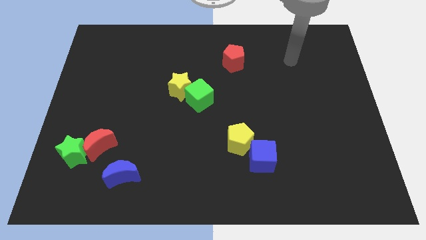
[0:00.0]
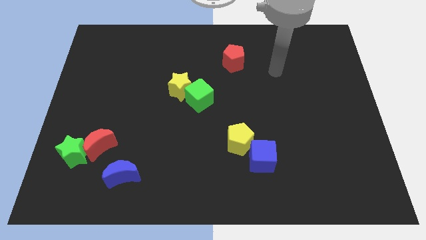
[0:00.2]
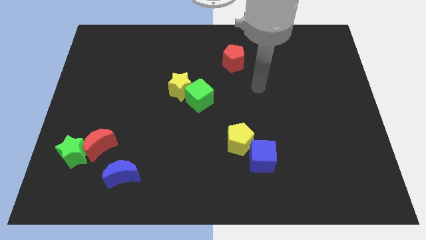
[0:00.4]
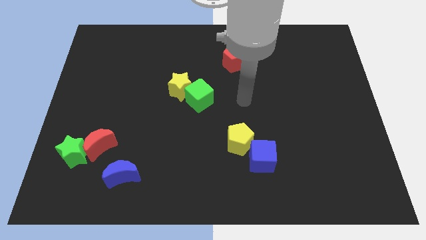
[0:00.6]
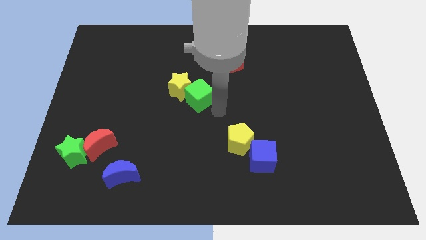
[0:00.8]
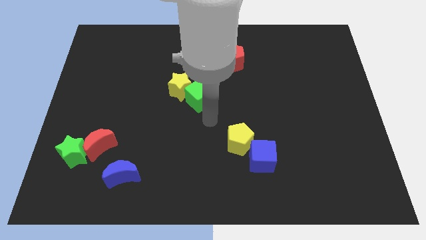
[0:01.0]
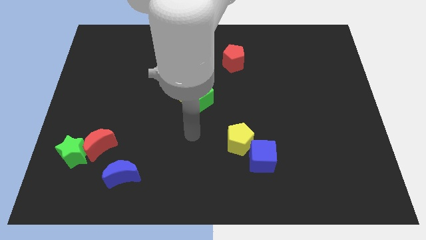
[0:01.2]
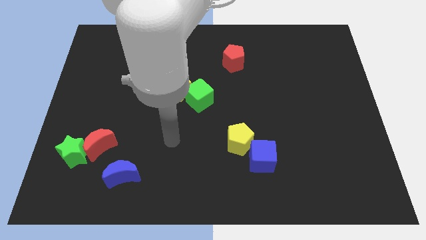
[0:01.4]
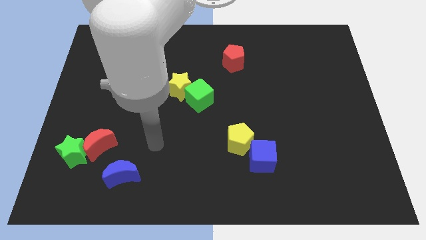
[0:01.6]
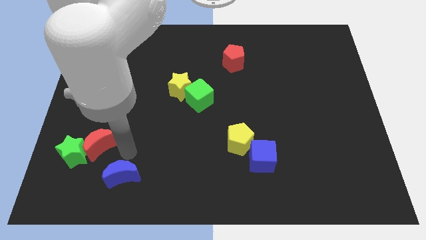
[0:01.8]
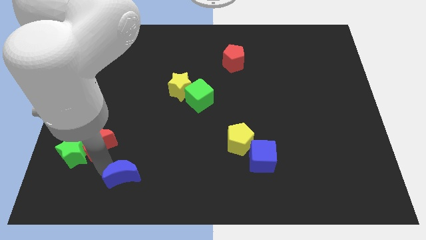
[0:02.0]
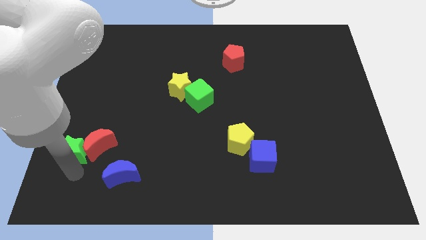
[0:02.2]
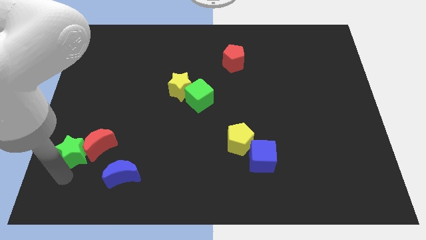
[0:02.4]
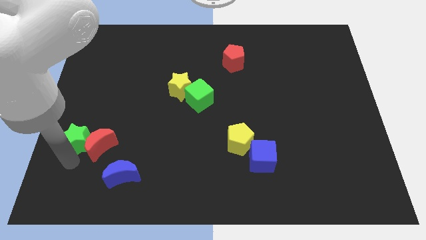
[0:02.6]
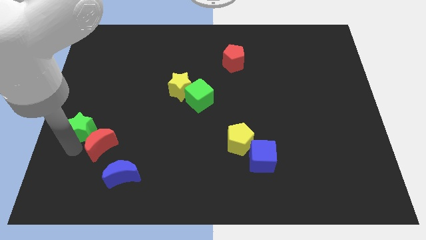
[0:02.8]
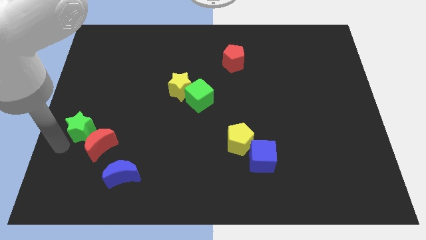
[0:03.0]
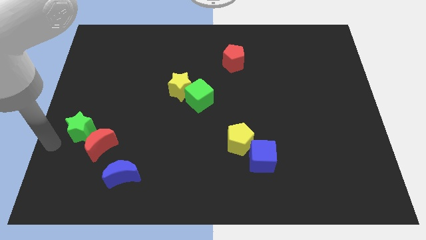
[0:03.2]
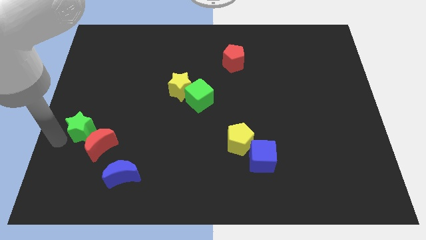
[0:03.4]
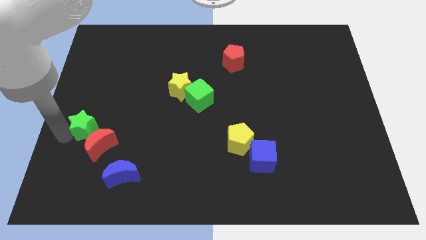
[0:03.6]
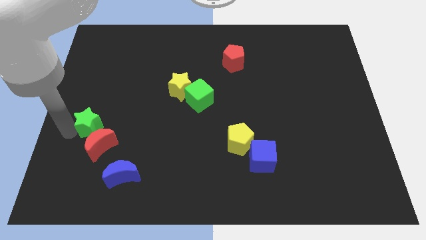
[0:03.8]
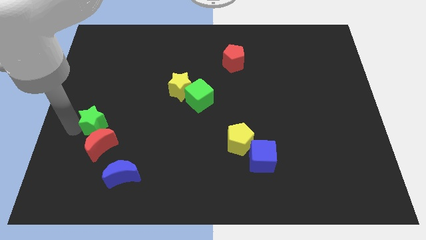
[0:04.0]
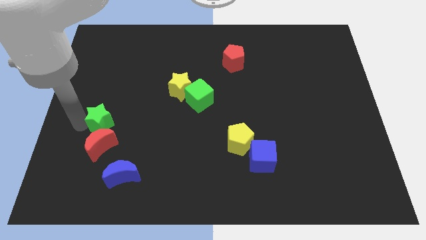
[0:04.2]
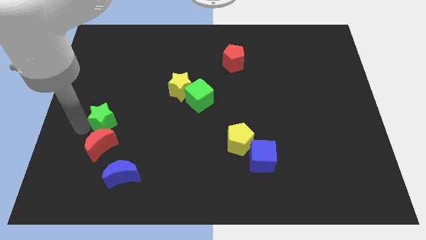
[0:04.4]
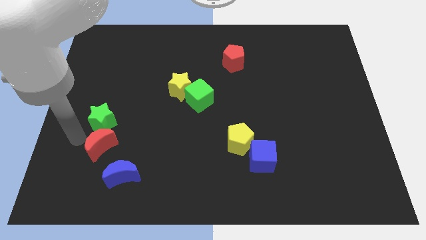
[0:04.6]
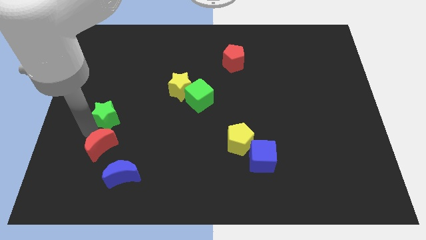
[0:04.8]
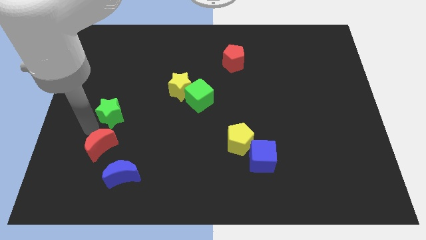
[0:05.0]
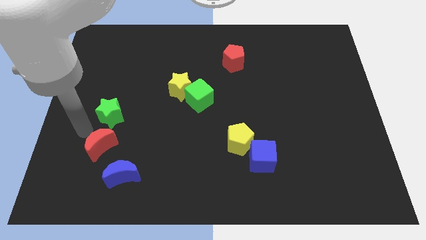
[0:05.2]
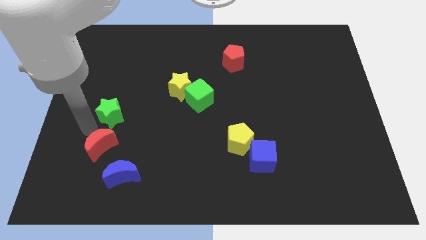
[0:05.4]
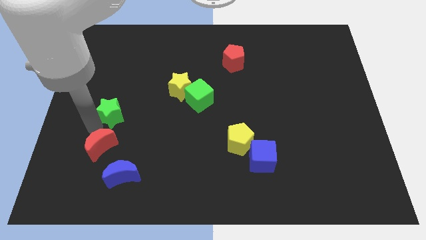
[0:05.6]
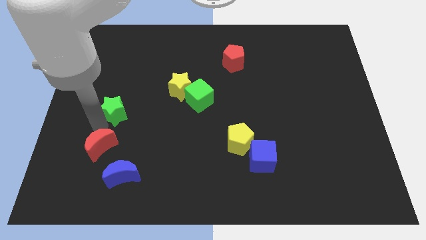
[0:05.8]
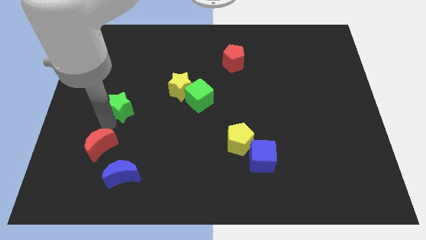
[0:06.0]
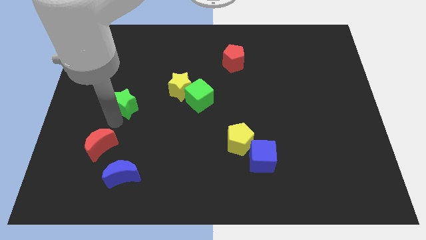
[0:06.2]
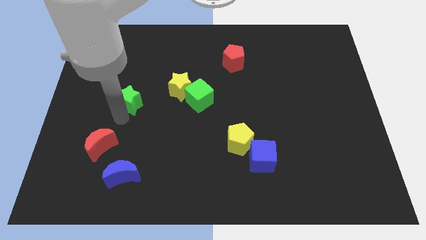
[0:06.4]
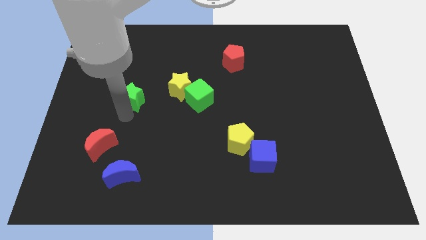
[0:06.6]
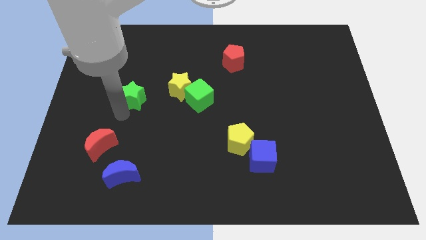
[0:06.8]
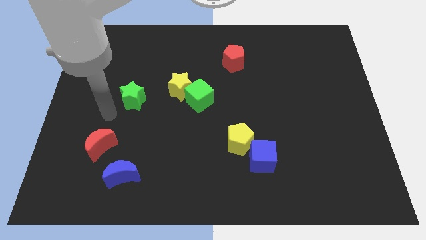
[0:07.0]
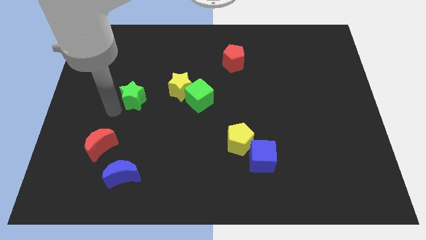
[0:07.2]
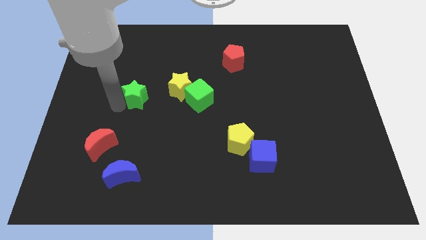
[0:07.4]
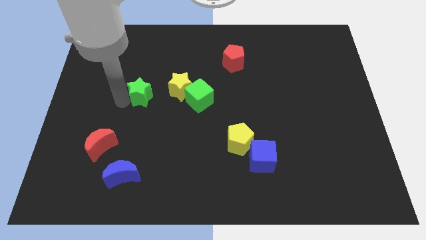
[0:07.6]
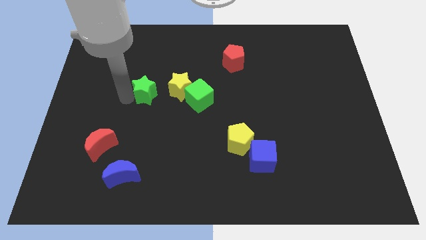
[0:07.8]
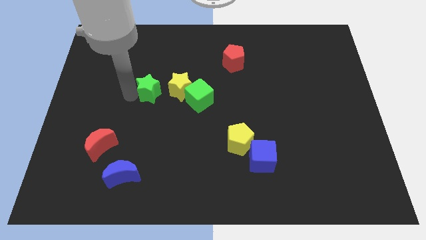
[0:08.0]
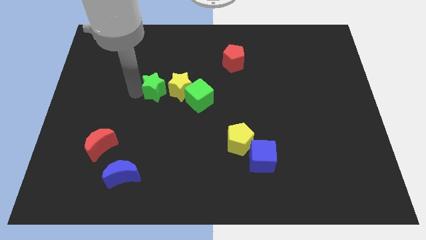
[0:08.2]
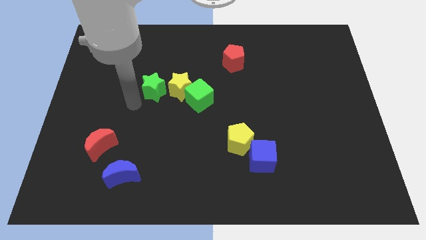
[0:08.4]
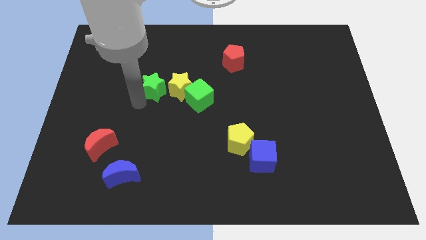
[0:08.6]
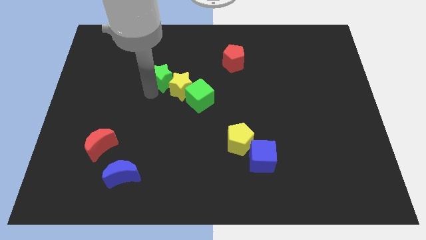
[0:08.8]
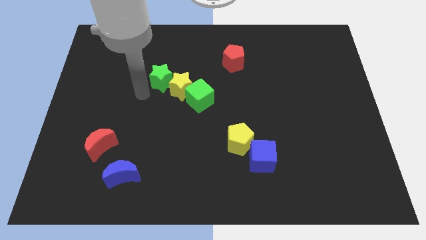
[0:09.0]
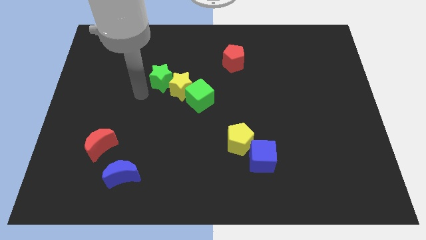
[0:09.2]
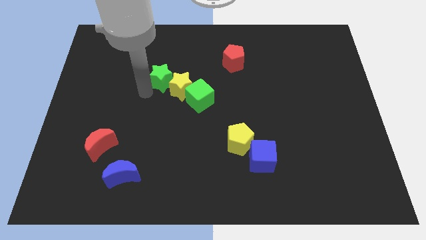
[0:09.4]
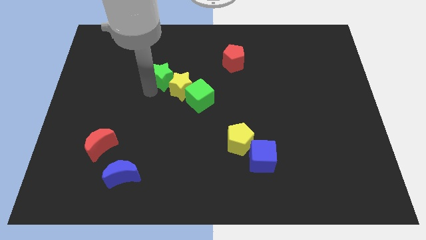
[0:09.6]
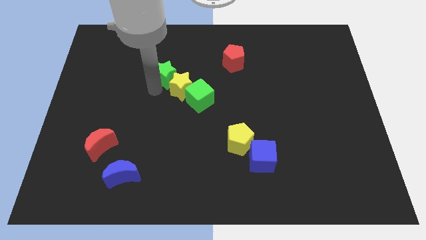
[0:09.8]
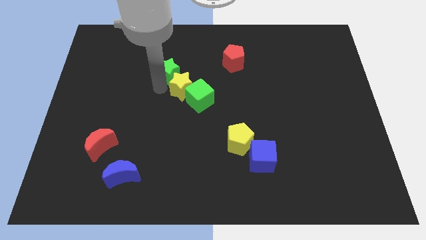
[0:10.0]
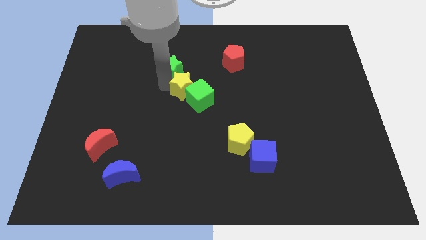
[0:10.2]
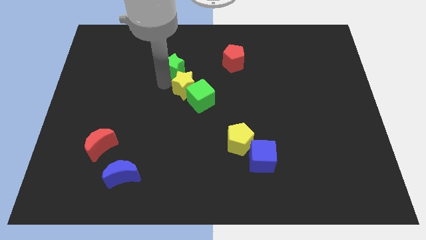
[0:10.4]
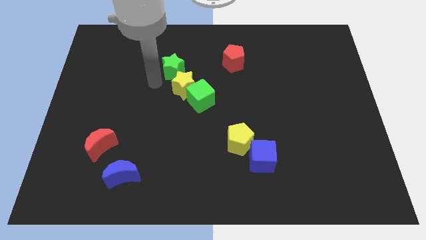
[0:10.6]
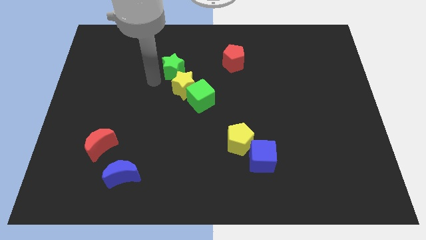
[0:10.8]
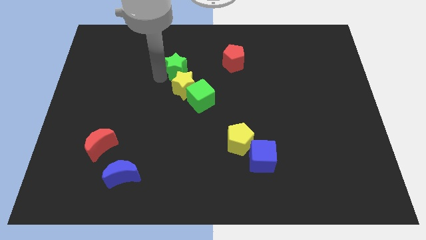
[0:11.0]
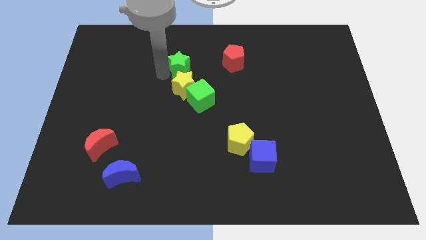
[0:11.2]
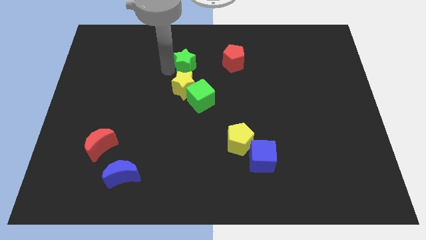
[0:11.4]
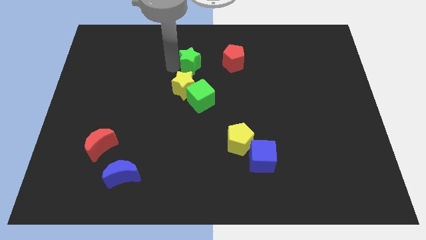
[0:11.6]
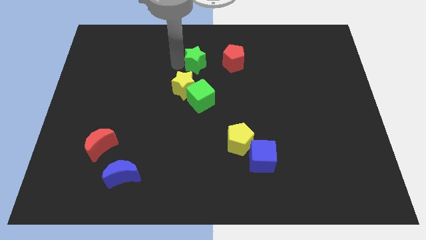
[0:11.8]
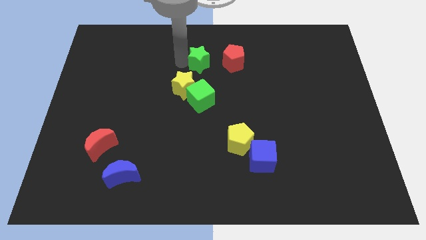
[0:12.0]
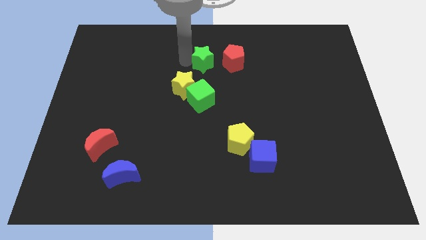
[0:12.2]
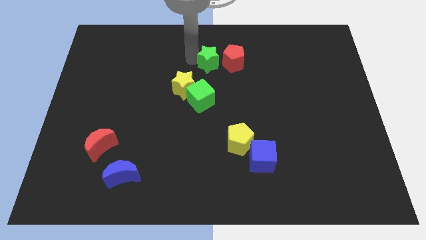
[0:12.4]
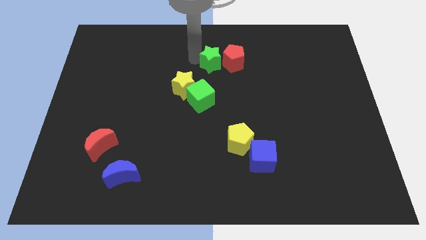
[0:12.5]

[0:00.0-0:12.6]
push the green star towards the red pentagon

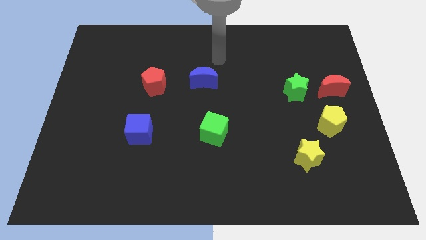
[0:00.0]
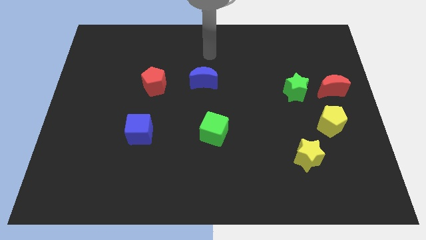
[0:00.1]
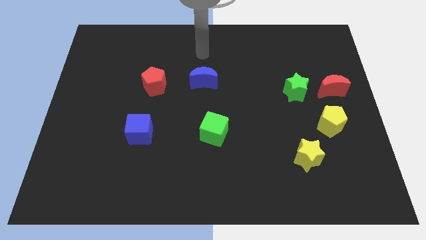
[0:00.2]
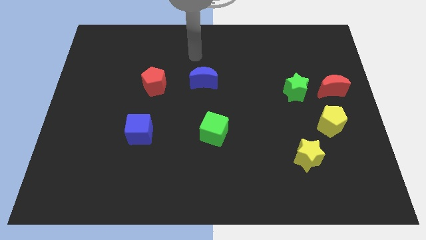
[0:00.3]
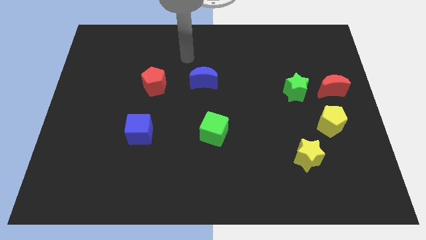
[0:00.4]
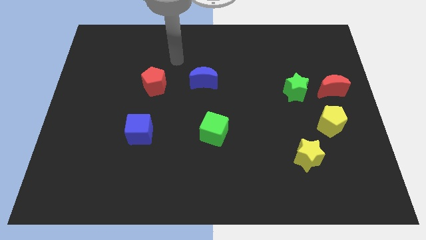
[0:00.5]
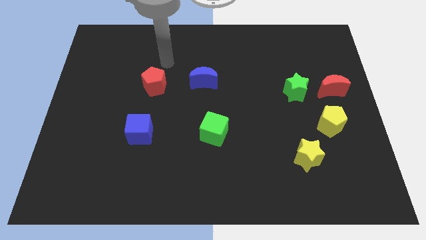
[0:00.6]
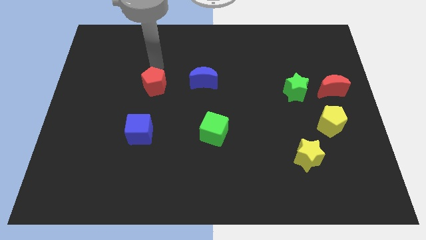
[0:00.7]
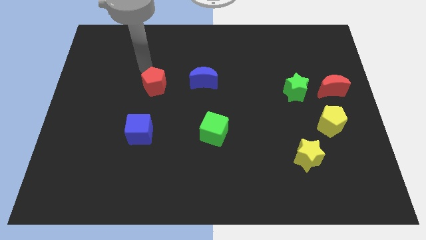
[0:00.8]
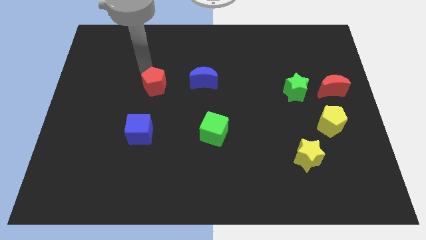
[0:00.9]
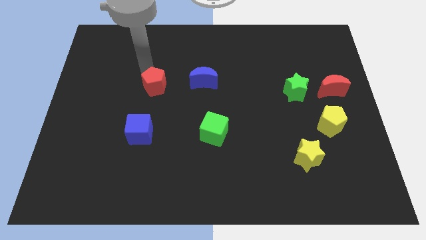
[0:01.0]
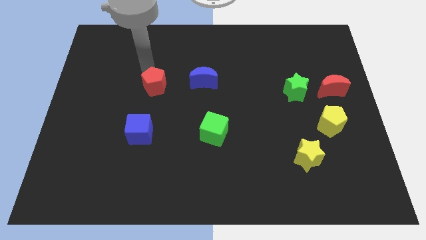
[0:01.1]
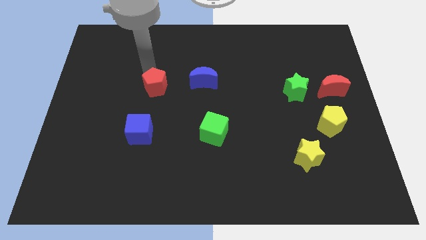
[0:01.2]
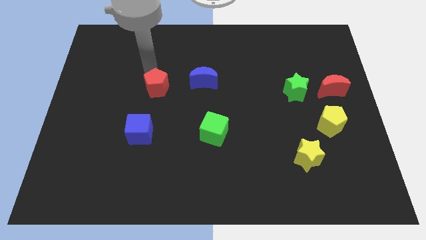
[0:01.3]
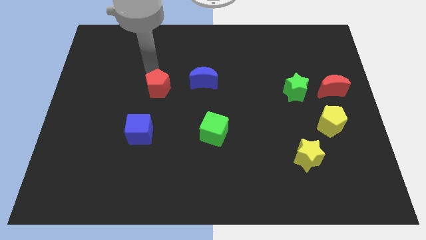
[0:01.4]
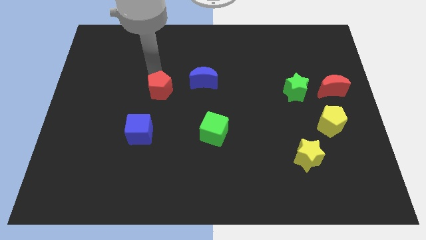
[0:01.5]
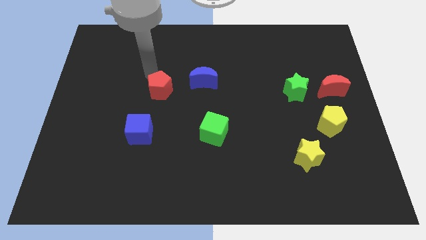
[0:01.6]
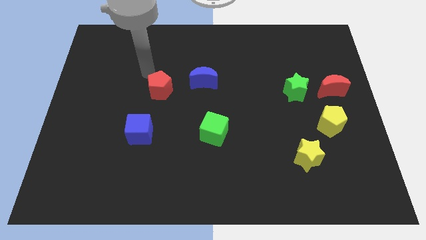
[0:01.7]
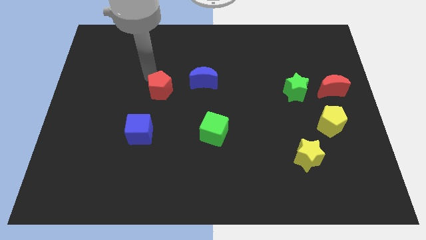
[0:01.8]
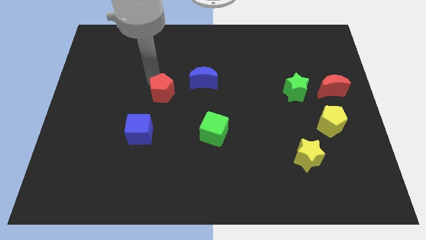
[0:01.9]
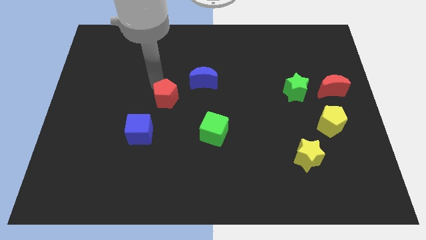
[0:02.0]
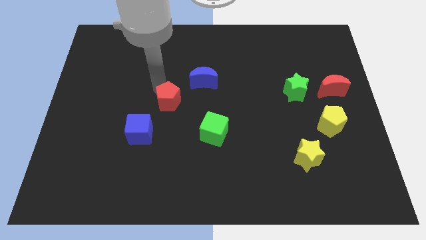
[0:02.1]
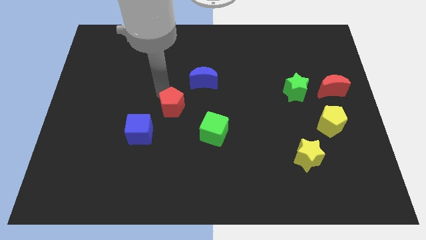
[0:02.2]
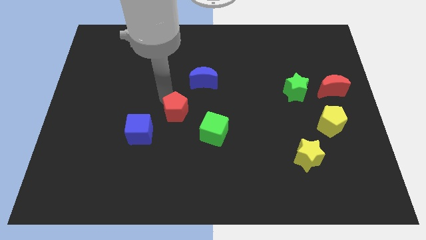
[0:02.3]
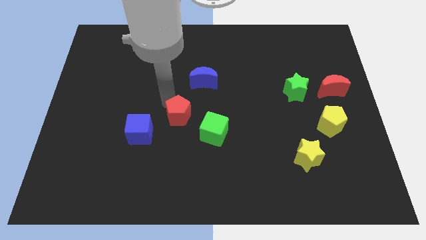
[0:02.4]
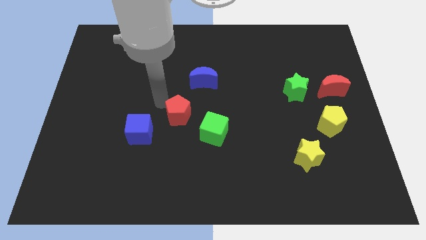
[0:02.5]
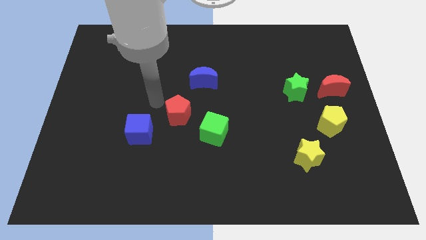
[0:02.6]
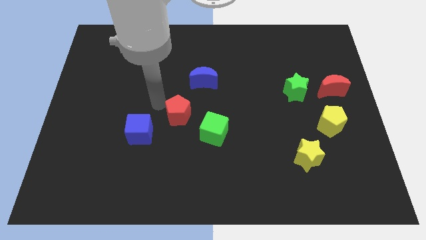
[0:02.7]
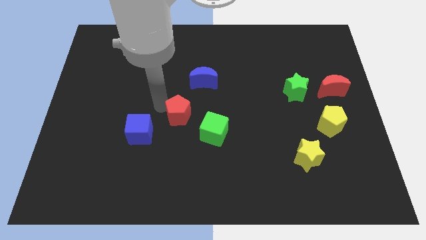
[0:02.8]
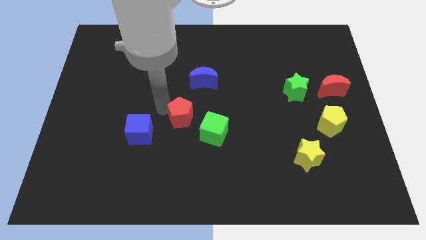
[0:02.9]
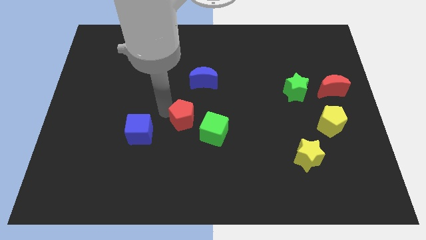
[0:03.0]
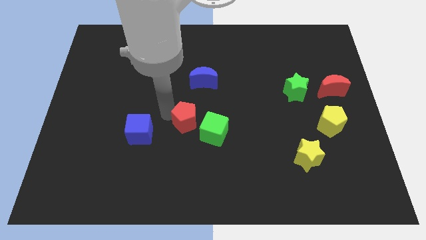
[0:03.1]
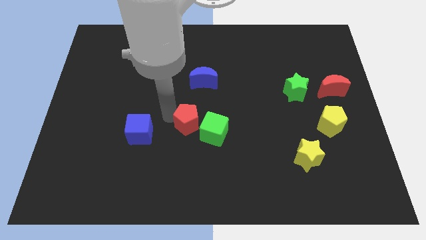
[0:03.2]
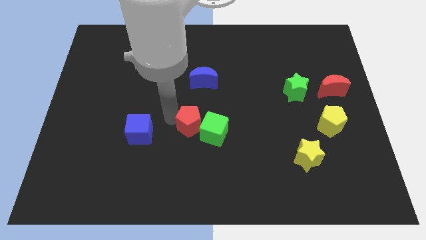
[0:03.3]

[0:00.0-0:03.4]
move the red pentagon to the green cube
